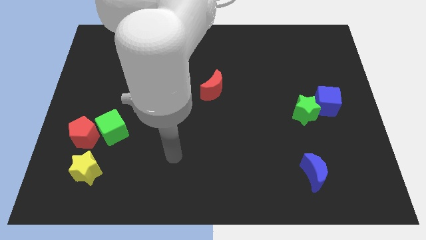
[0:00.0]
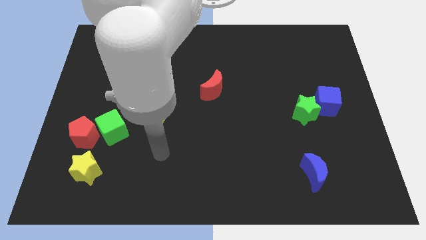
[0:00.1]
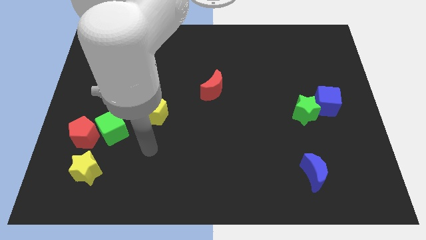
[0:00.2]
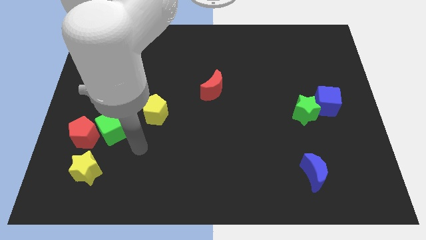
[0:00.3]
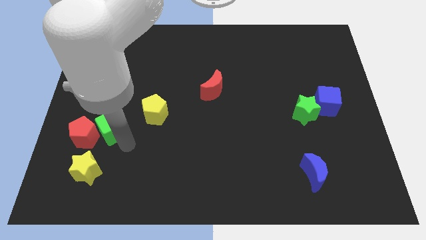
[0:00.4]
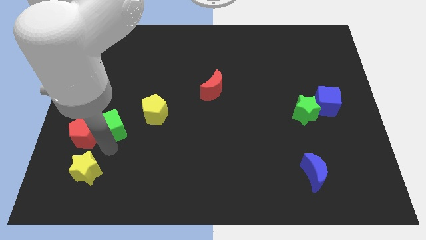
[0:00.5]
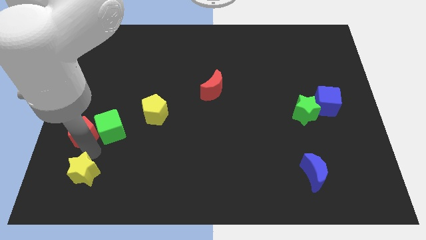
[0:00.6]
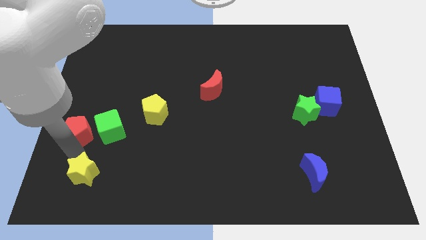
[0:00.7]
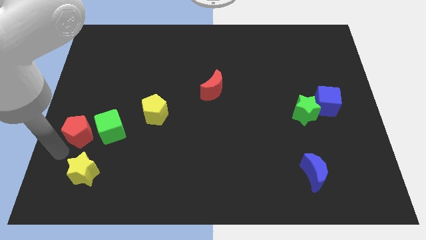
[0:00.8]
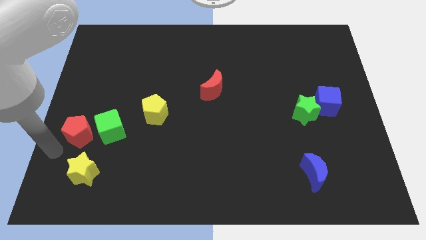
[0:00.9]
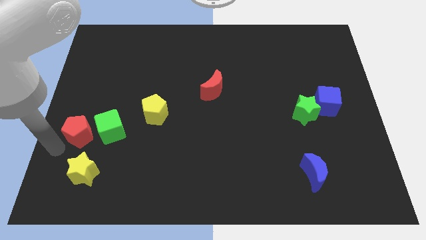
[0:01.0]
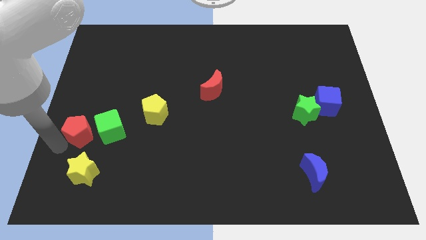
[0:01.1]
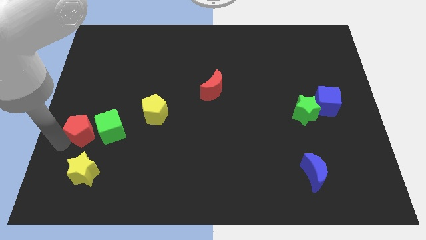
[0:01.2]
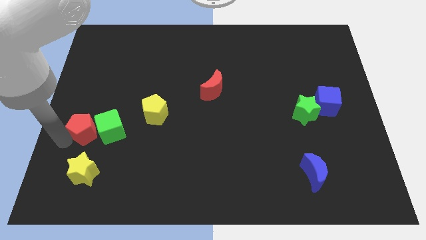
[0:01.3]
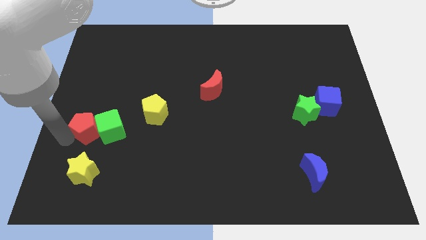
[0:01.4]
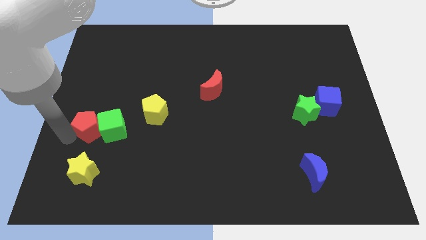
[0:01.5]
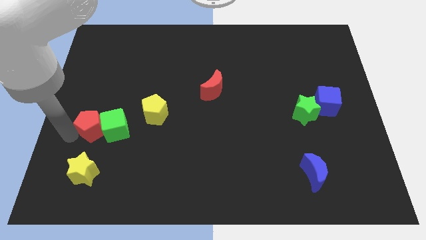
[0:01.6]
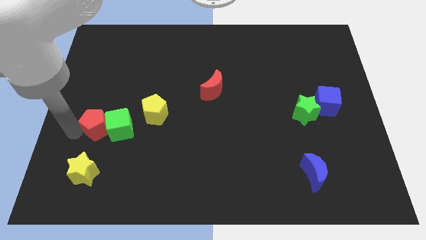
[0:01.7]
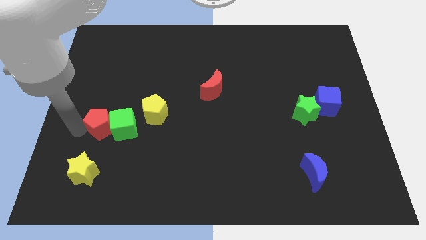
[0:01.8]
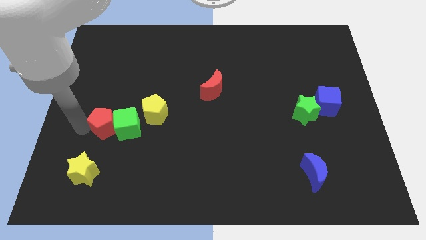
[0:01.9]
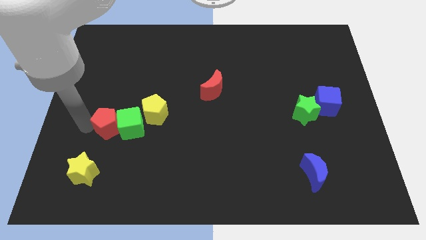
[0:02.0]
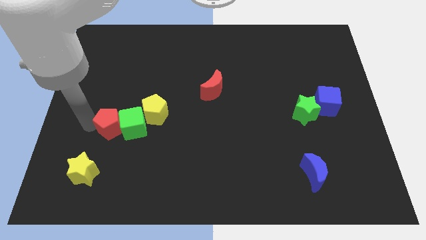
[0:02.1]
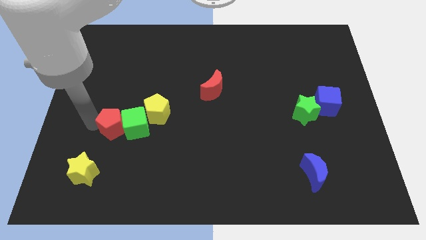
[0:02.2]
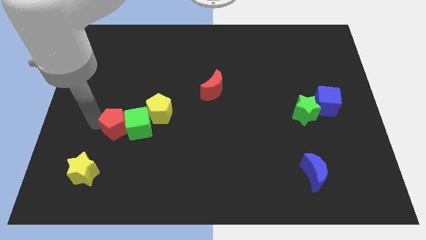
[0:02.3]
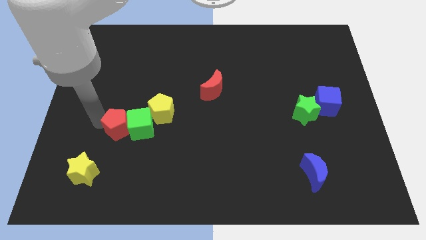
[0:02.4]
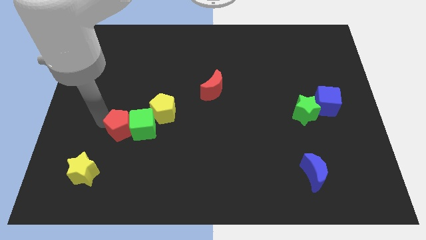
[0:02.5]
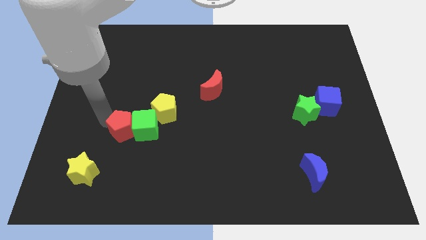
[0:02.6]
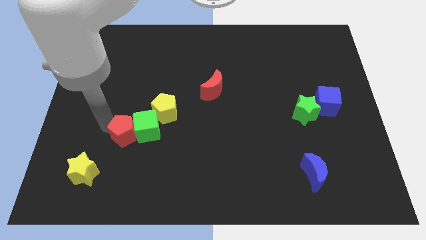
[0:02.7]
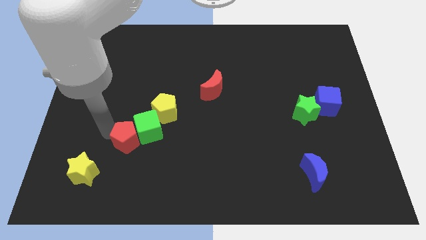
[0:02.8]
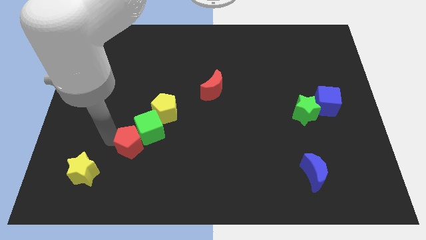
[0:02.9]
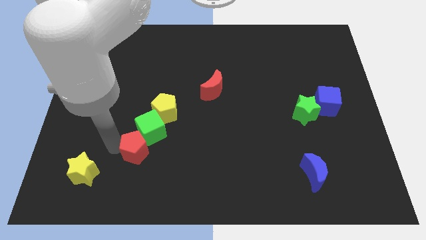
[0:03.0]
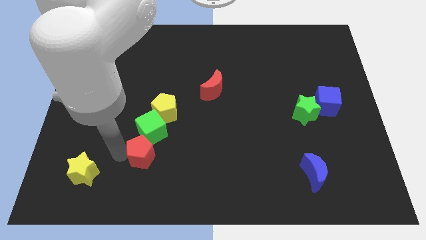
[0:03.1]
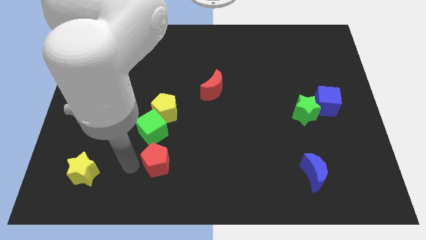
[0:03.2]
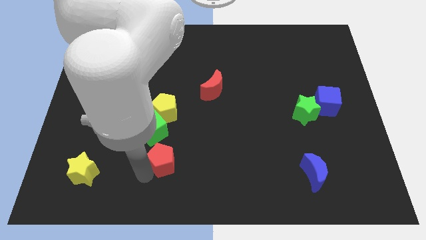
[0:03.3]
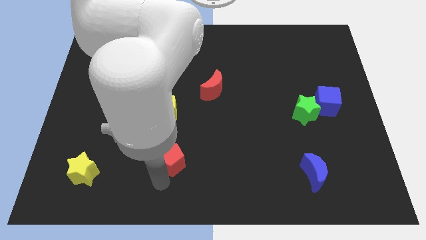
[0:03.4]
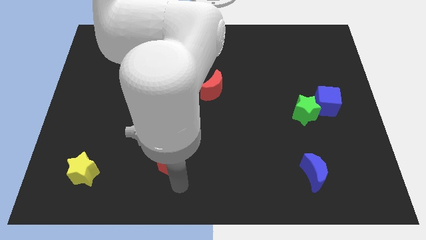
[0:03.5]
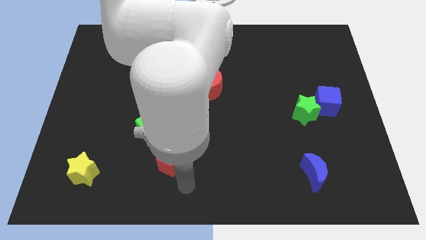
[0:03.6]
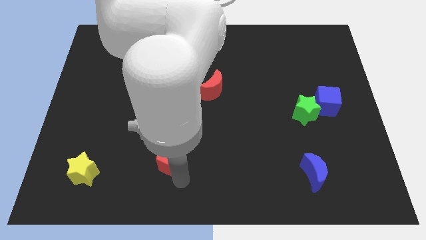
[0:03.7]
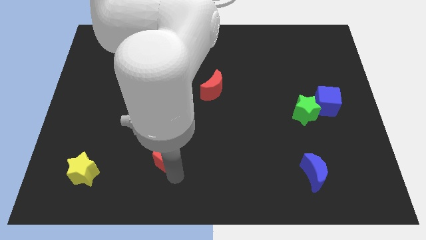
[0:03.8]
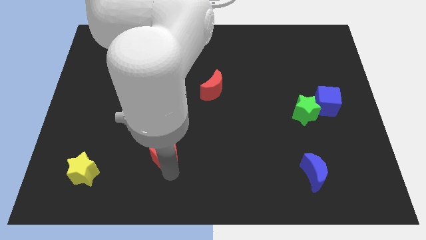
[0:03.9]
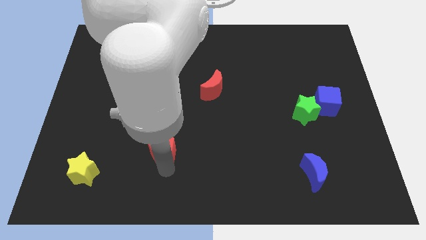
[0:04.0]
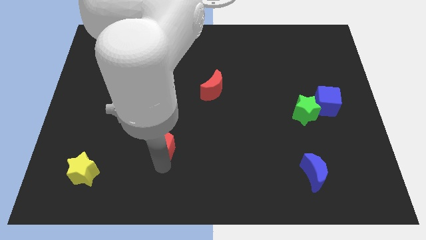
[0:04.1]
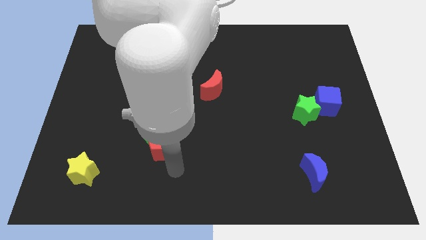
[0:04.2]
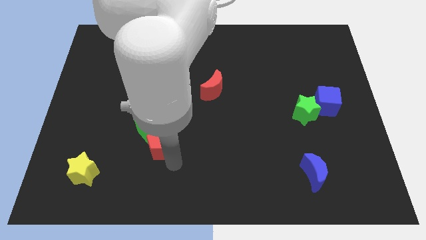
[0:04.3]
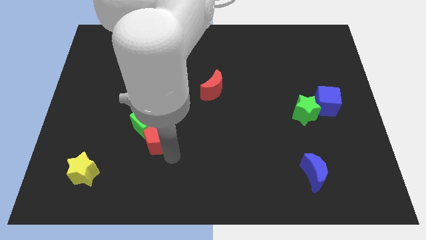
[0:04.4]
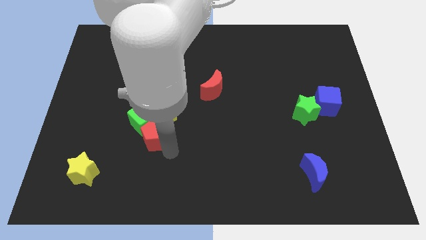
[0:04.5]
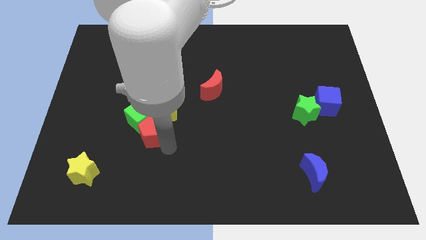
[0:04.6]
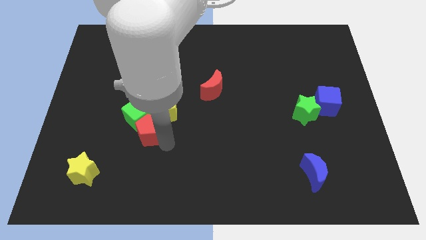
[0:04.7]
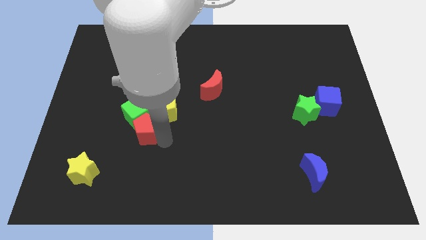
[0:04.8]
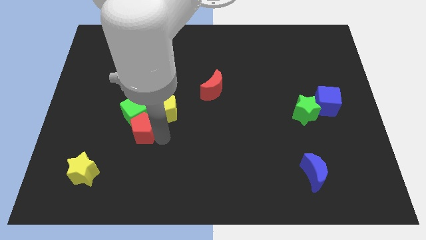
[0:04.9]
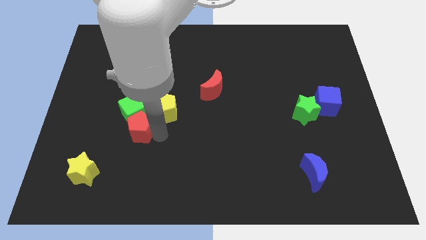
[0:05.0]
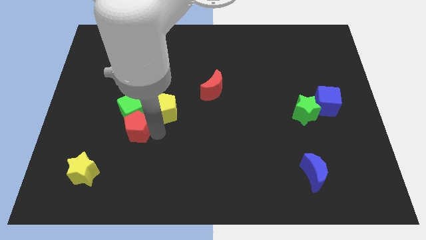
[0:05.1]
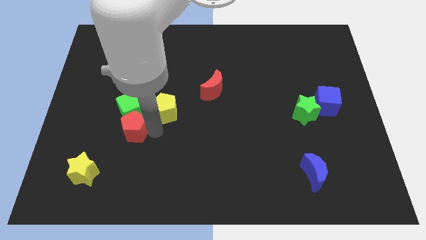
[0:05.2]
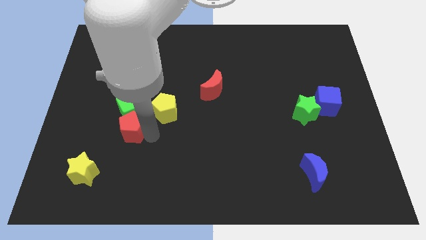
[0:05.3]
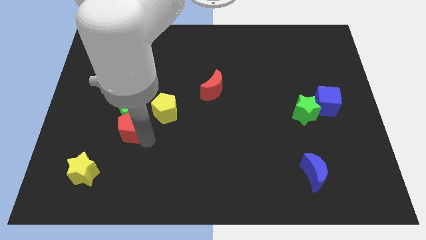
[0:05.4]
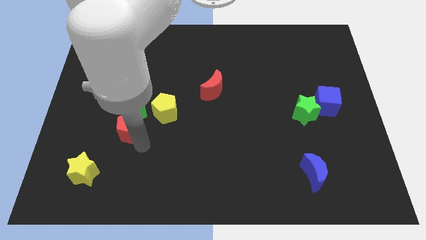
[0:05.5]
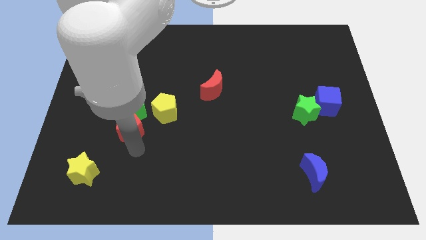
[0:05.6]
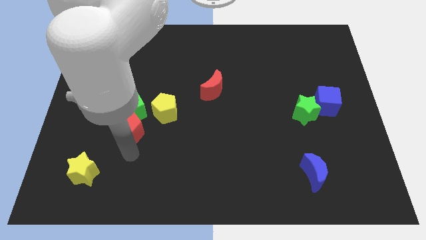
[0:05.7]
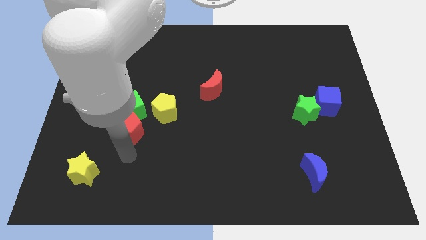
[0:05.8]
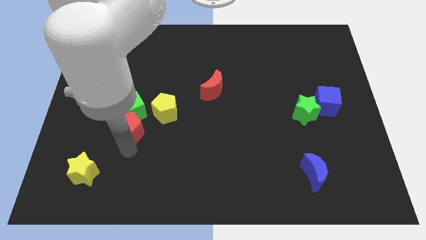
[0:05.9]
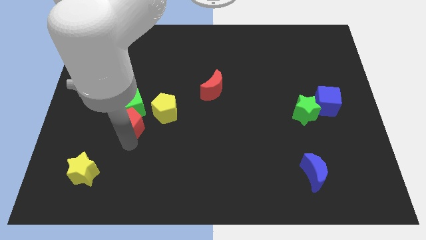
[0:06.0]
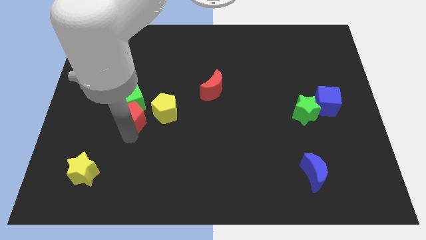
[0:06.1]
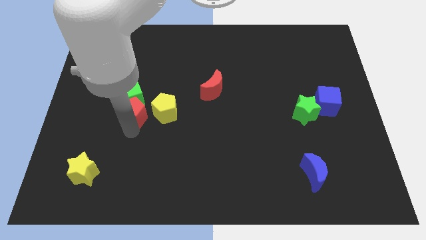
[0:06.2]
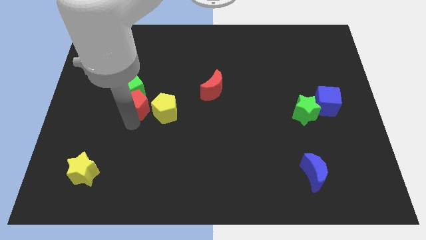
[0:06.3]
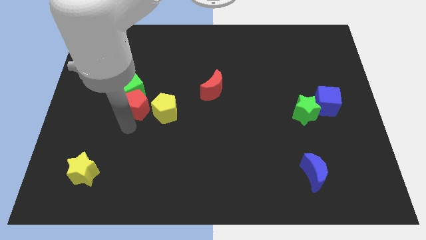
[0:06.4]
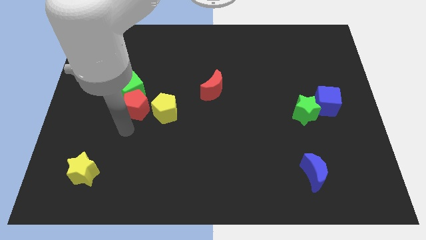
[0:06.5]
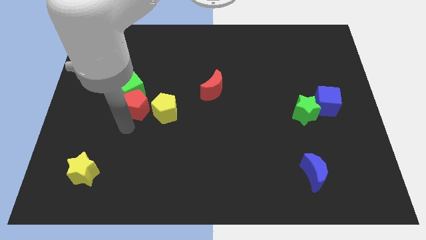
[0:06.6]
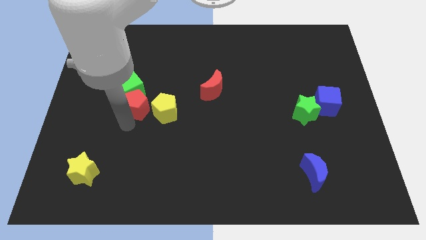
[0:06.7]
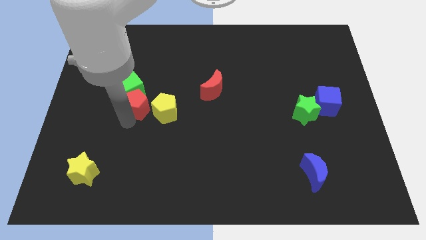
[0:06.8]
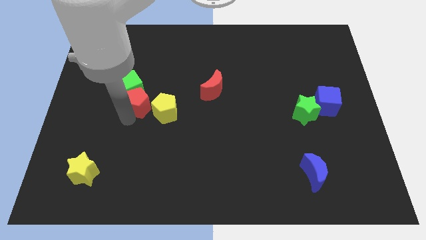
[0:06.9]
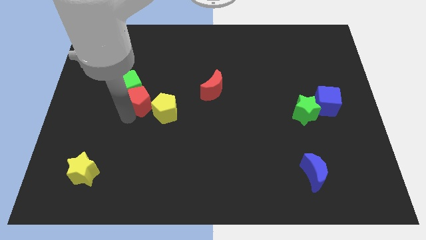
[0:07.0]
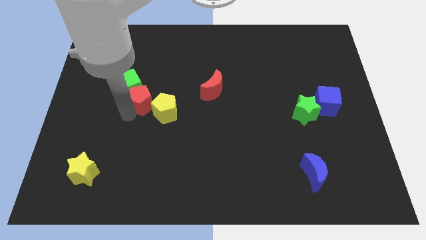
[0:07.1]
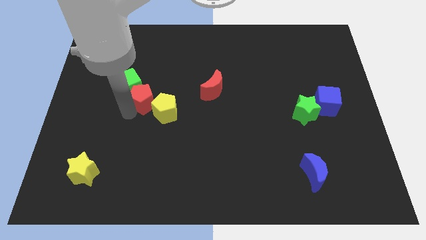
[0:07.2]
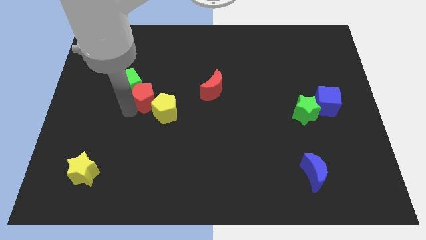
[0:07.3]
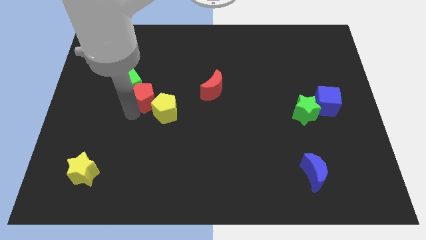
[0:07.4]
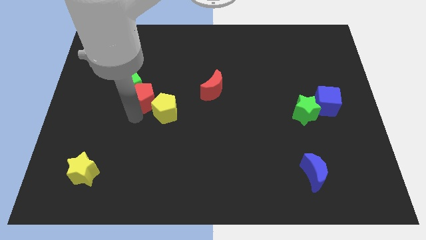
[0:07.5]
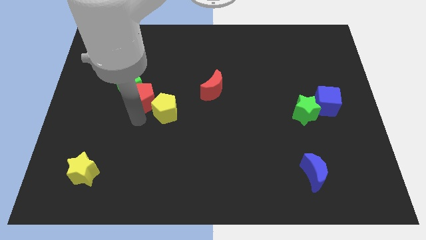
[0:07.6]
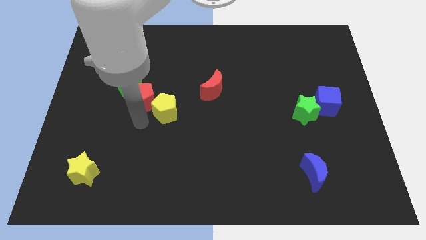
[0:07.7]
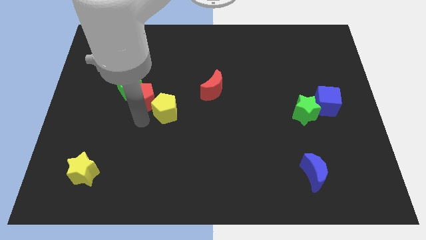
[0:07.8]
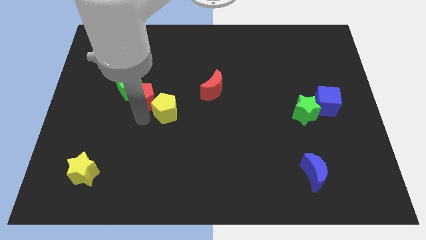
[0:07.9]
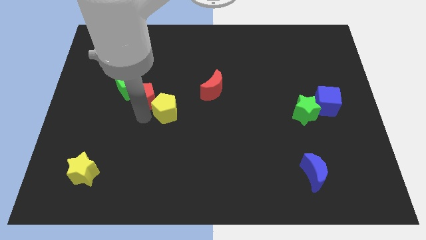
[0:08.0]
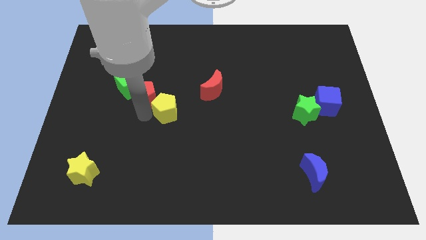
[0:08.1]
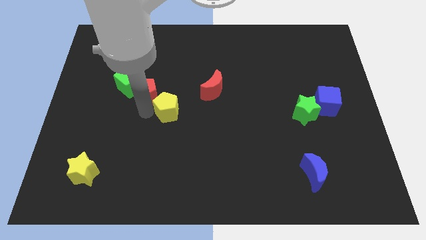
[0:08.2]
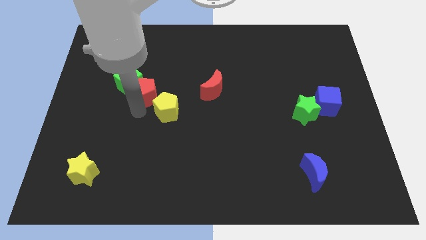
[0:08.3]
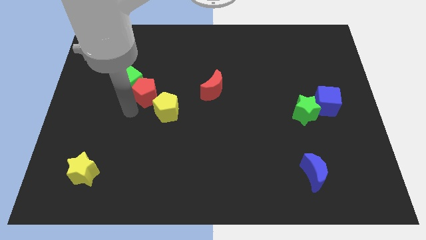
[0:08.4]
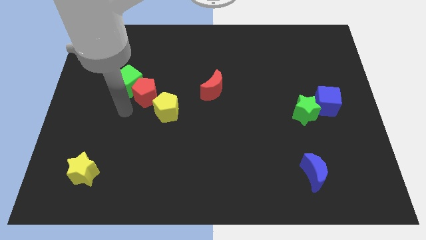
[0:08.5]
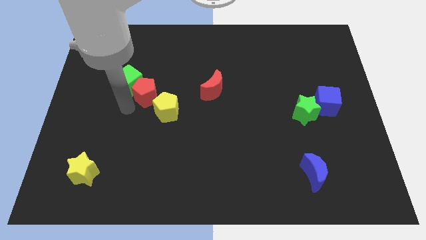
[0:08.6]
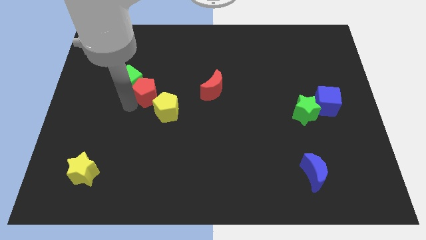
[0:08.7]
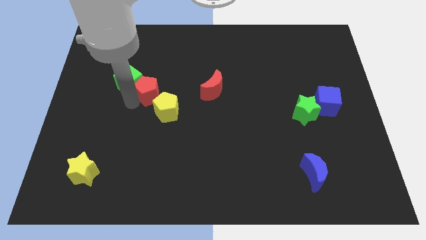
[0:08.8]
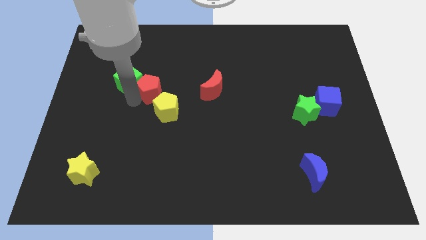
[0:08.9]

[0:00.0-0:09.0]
slide the red pentagon to the top side of the yellow pentagon
